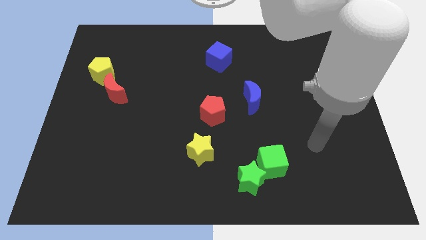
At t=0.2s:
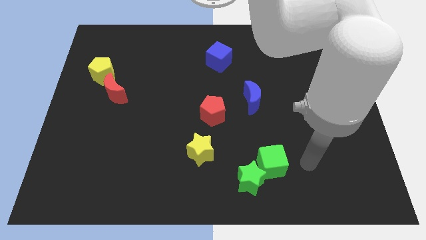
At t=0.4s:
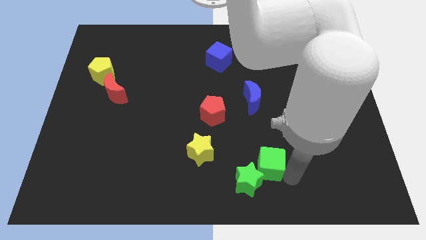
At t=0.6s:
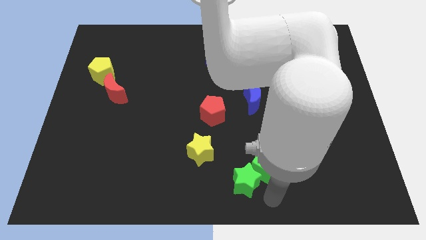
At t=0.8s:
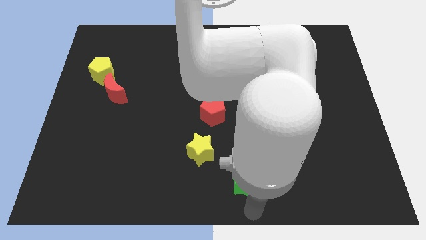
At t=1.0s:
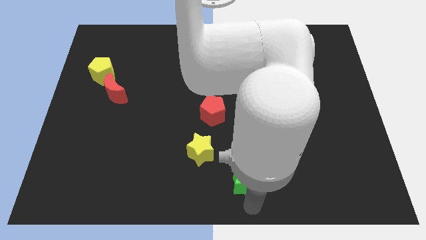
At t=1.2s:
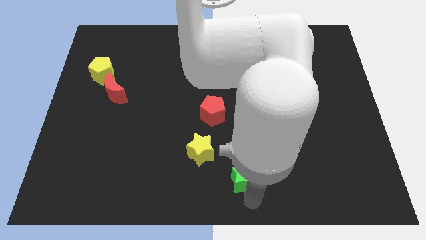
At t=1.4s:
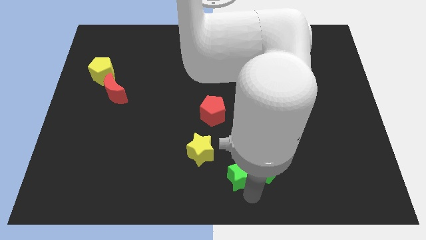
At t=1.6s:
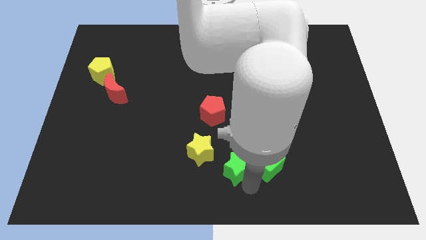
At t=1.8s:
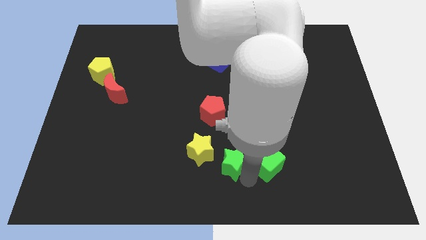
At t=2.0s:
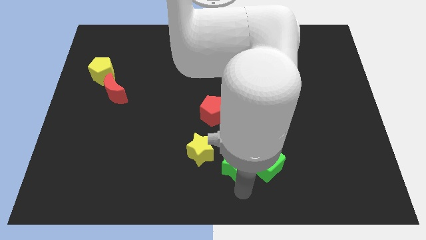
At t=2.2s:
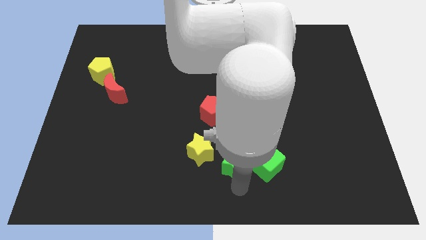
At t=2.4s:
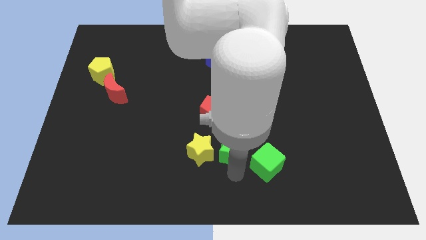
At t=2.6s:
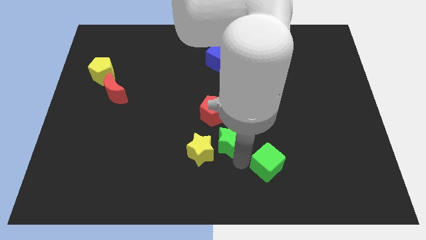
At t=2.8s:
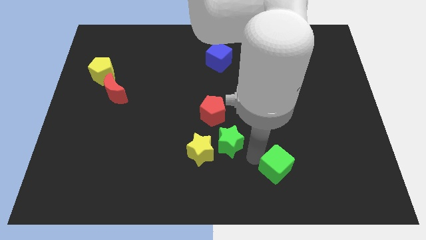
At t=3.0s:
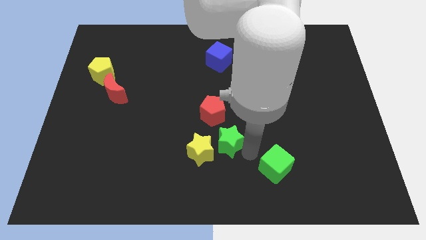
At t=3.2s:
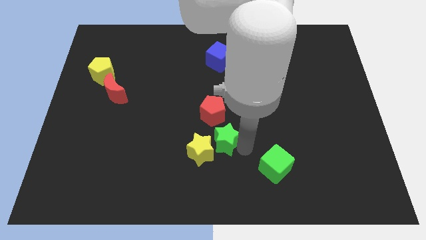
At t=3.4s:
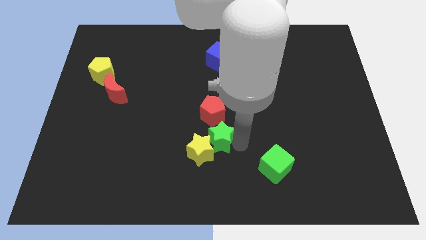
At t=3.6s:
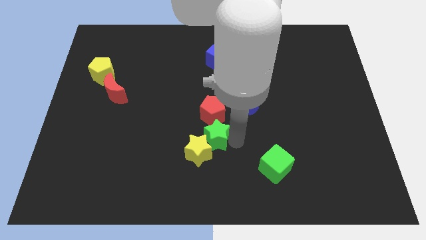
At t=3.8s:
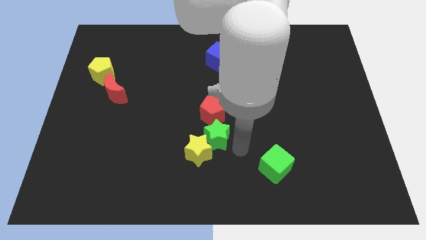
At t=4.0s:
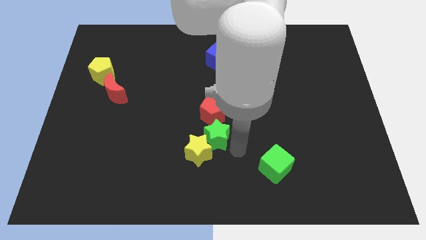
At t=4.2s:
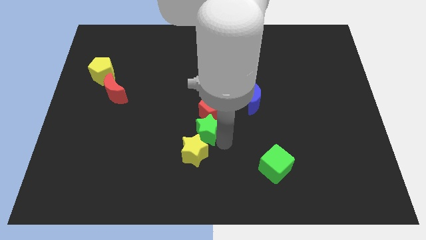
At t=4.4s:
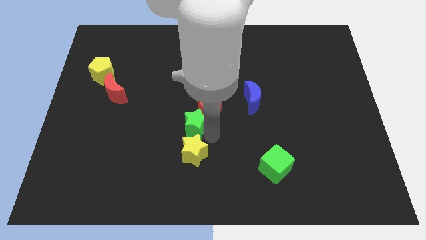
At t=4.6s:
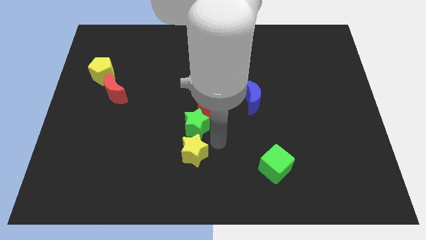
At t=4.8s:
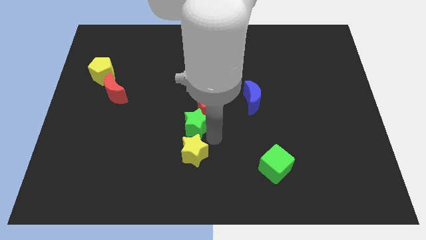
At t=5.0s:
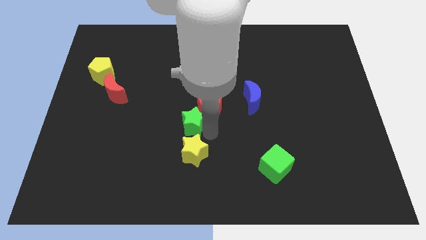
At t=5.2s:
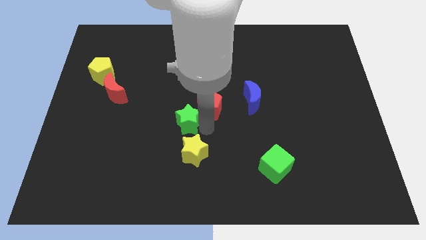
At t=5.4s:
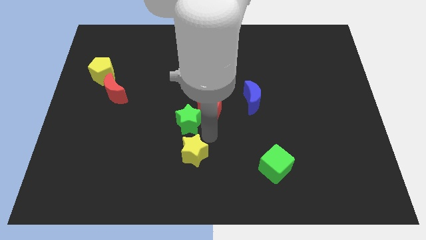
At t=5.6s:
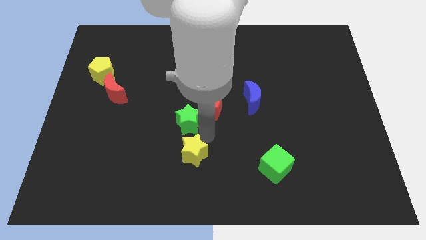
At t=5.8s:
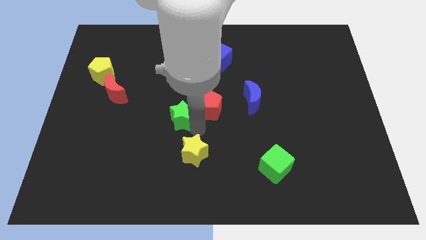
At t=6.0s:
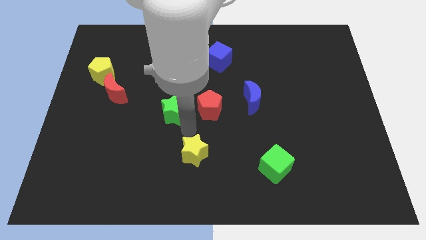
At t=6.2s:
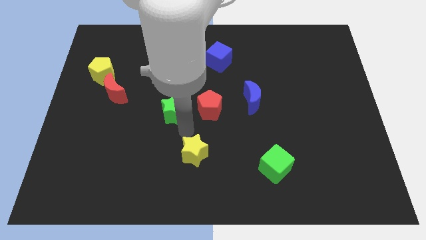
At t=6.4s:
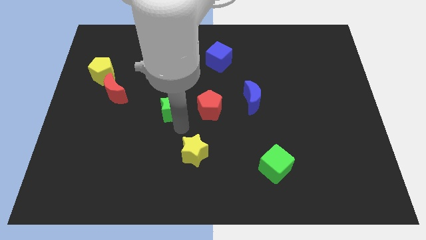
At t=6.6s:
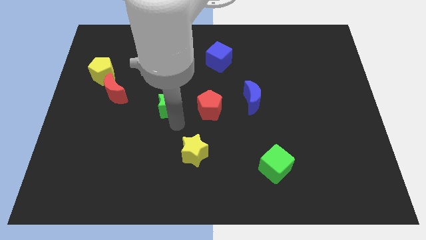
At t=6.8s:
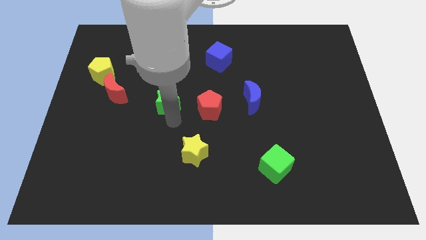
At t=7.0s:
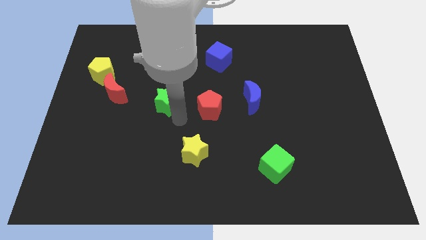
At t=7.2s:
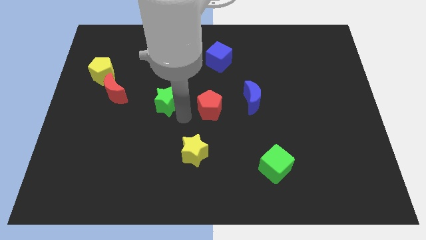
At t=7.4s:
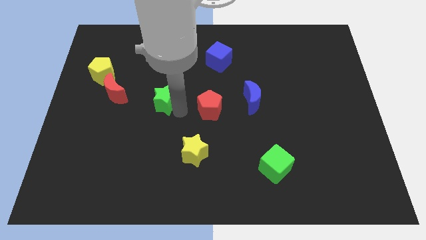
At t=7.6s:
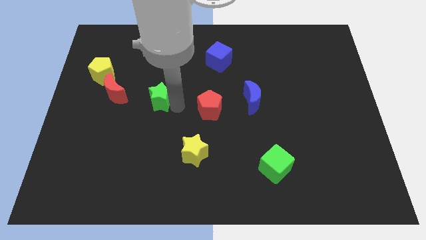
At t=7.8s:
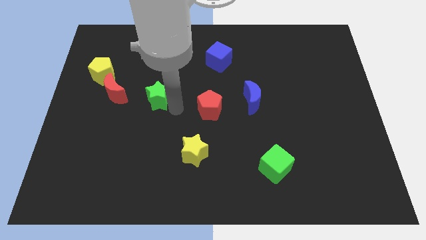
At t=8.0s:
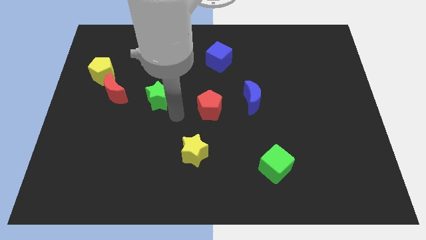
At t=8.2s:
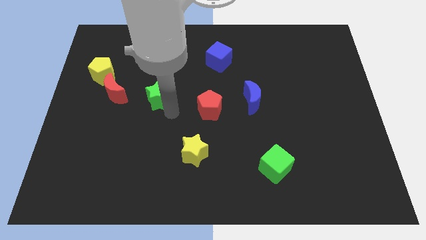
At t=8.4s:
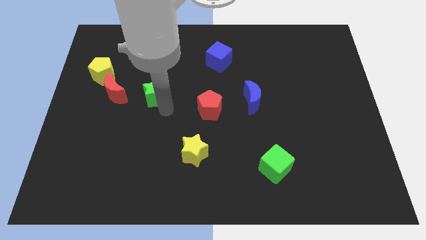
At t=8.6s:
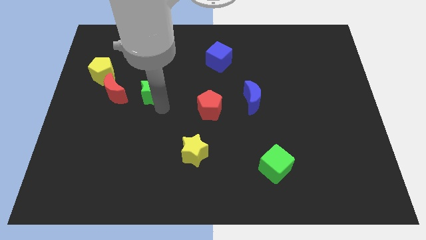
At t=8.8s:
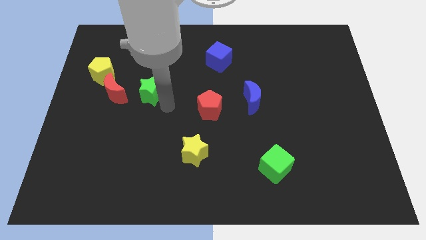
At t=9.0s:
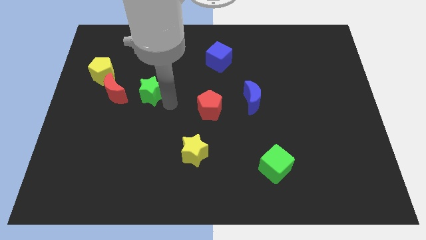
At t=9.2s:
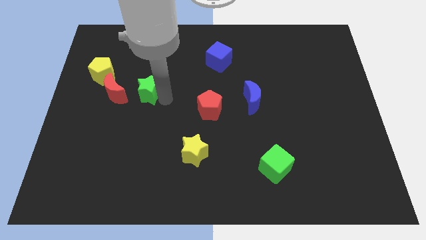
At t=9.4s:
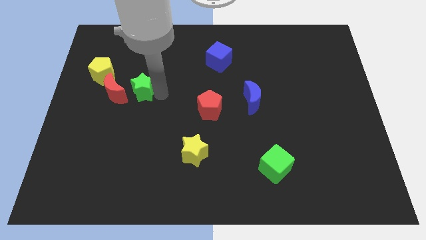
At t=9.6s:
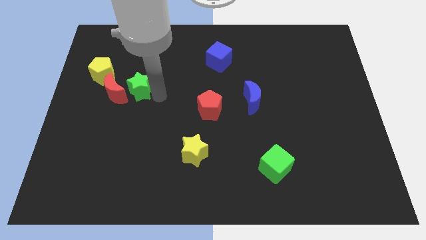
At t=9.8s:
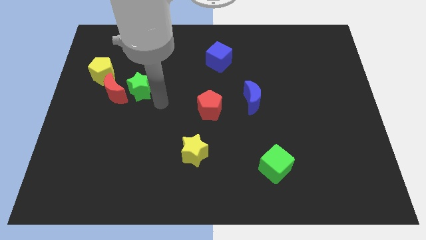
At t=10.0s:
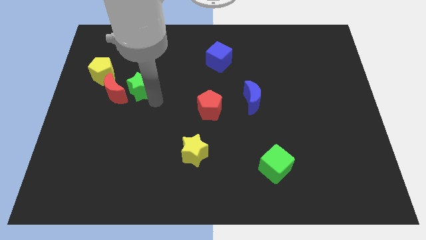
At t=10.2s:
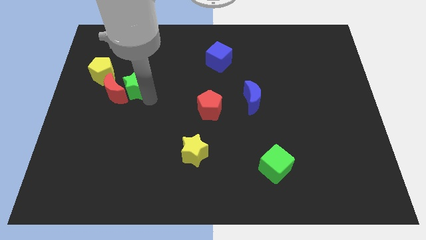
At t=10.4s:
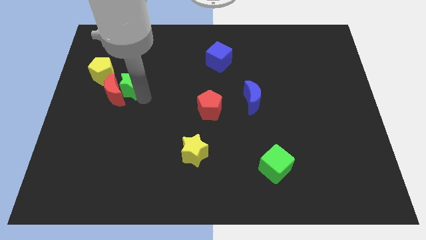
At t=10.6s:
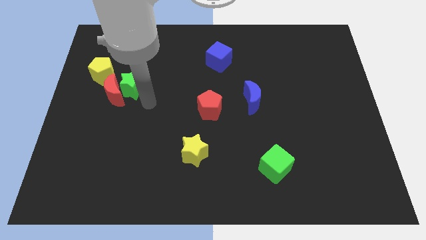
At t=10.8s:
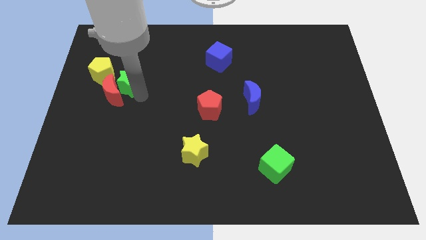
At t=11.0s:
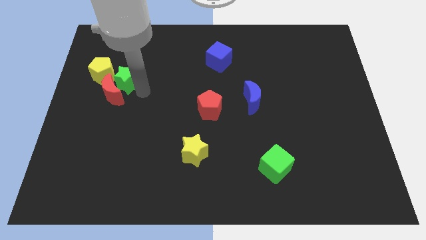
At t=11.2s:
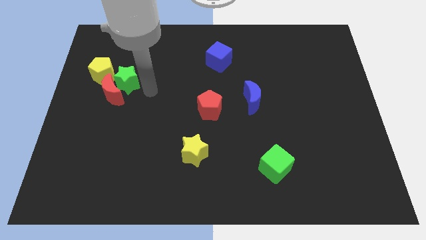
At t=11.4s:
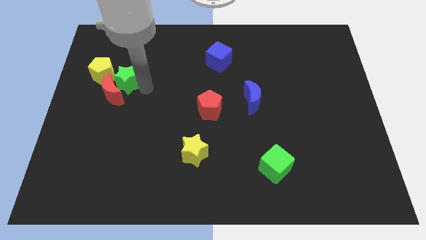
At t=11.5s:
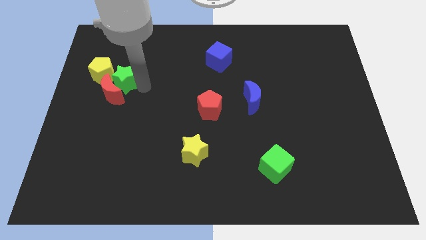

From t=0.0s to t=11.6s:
move the green star close to the yellow pentagon

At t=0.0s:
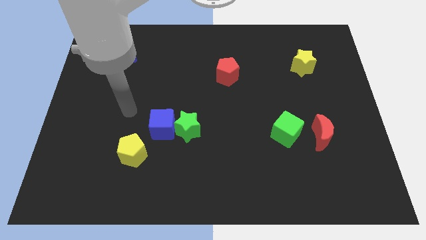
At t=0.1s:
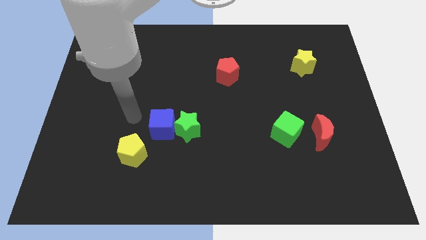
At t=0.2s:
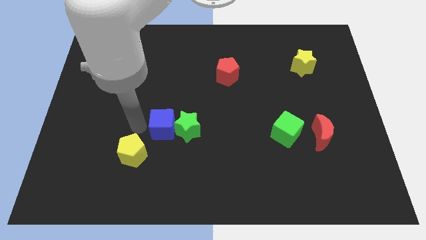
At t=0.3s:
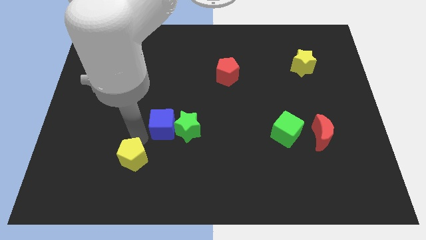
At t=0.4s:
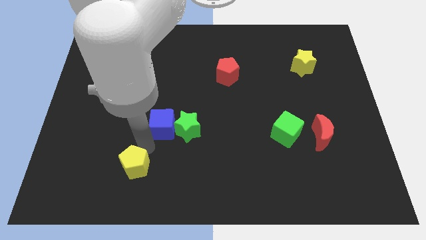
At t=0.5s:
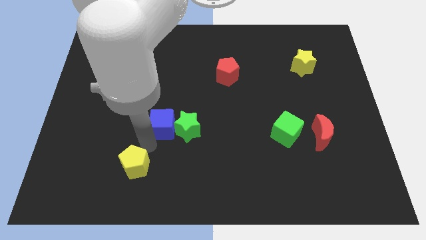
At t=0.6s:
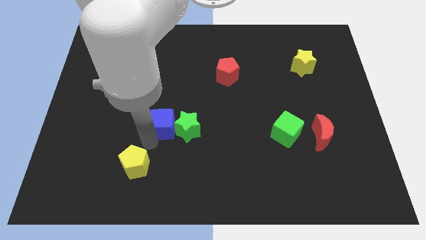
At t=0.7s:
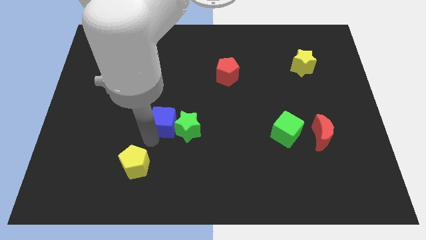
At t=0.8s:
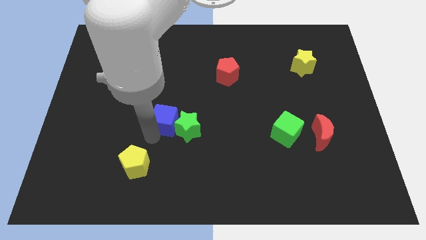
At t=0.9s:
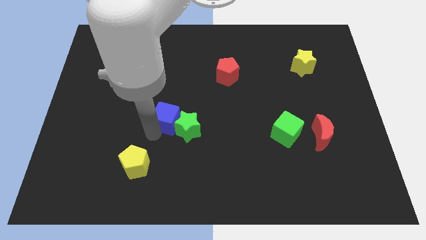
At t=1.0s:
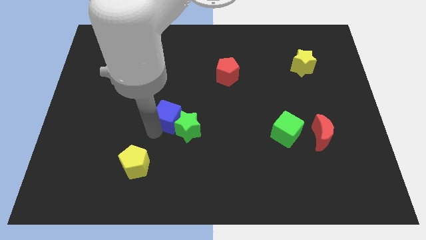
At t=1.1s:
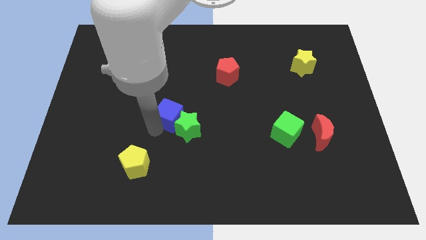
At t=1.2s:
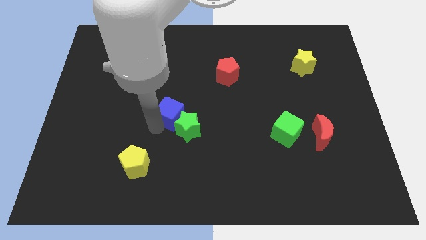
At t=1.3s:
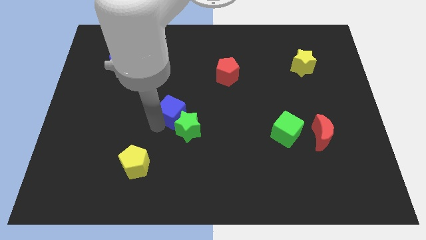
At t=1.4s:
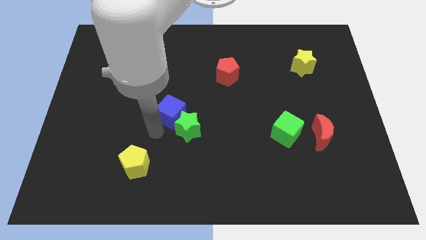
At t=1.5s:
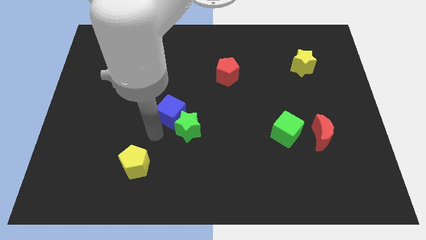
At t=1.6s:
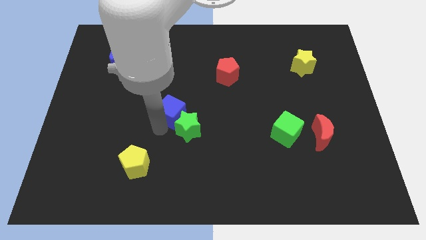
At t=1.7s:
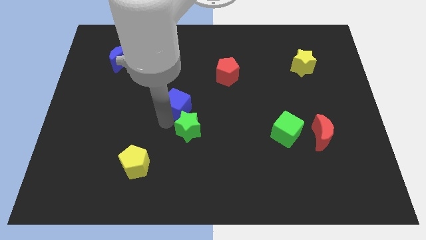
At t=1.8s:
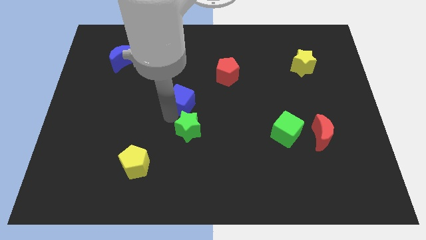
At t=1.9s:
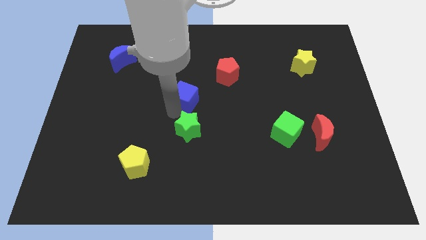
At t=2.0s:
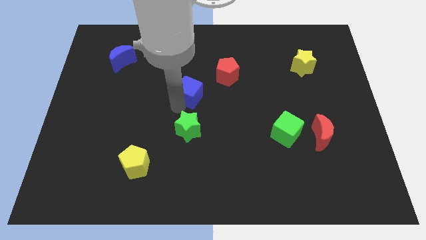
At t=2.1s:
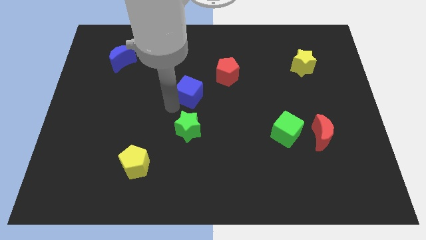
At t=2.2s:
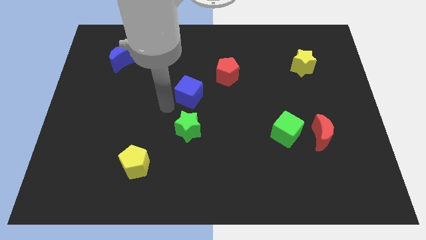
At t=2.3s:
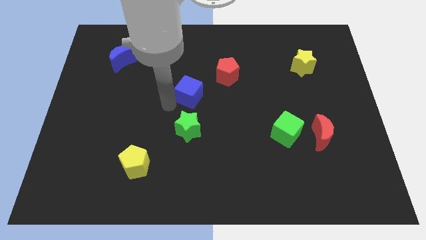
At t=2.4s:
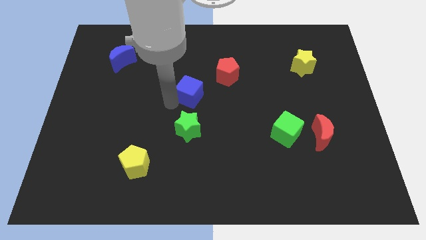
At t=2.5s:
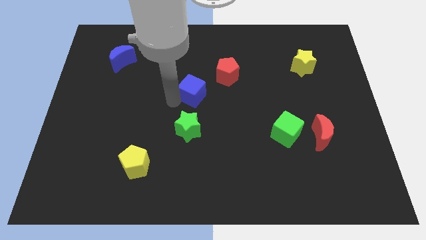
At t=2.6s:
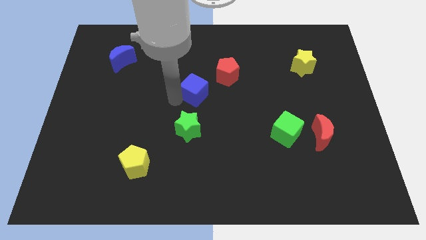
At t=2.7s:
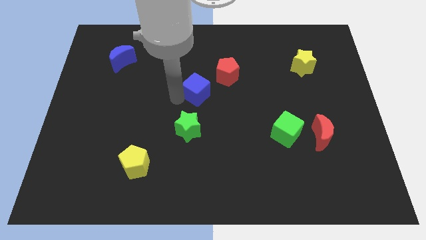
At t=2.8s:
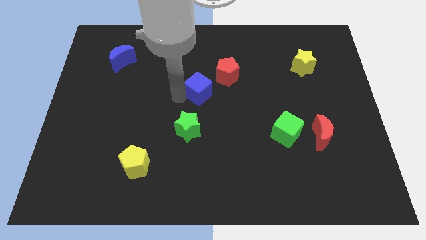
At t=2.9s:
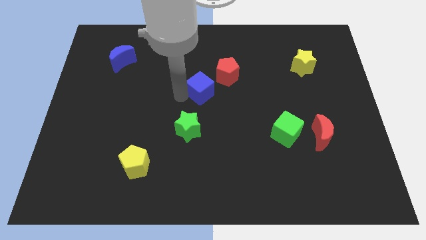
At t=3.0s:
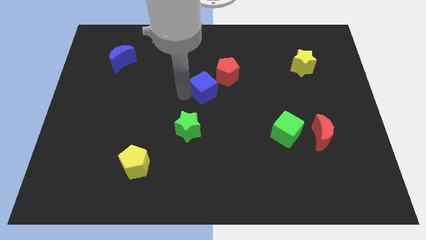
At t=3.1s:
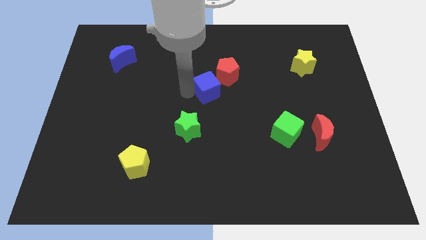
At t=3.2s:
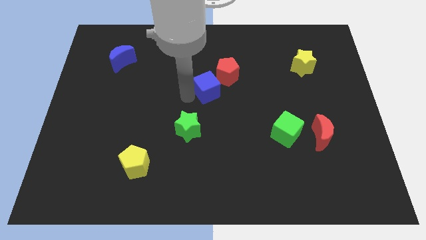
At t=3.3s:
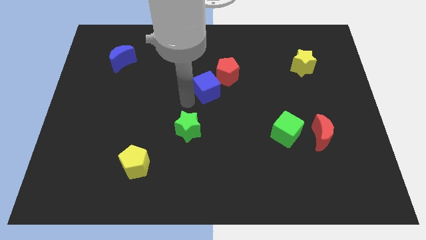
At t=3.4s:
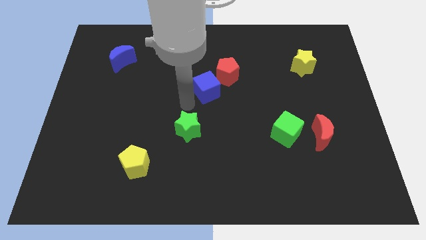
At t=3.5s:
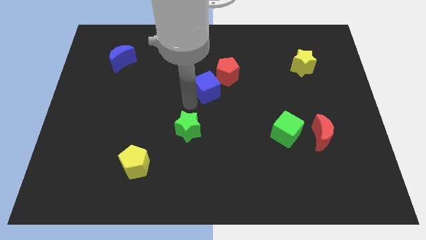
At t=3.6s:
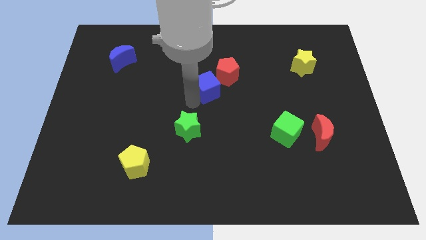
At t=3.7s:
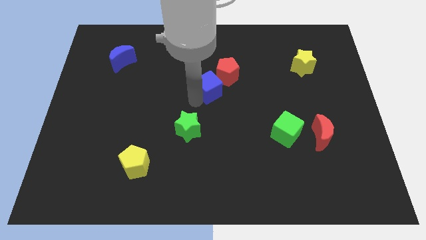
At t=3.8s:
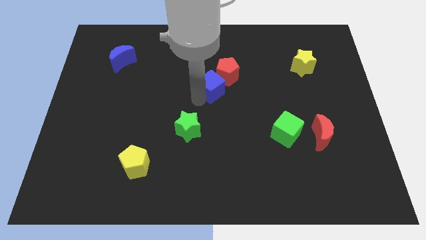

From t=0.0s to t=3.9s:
push the blue cube towards the red pentagon
